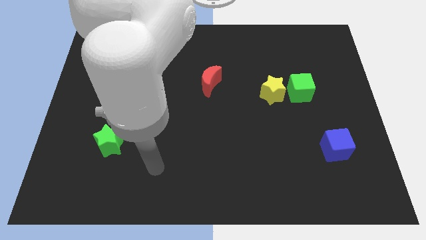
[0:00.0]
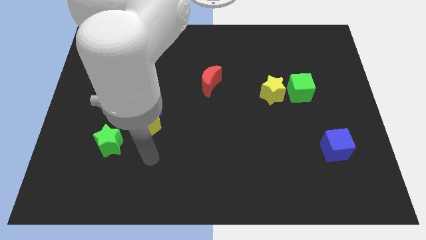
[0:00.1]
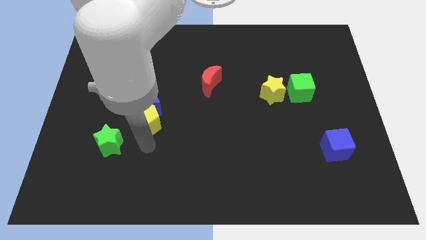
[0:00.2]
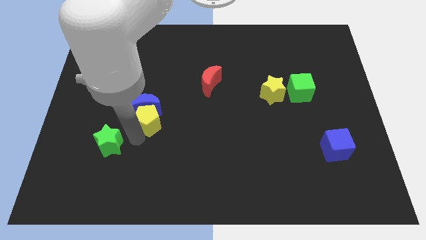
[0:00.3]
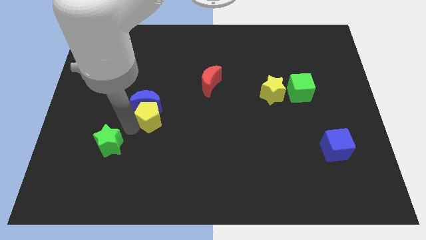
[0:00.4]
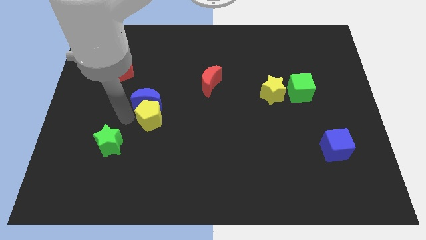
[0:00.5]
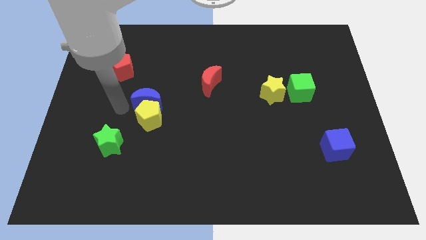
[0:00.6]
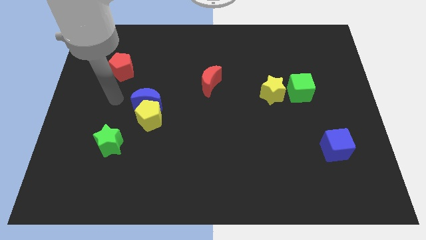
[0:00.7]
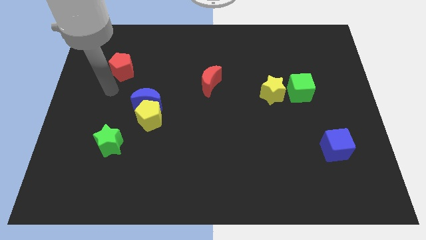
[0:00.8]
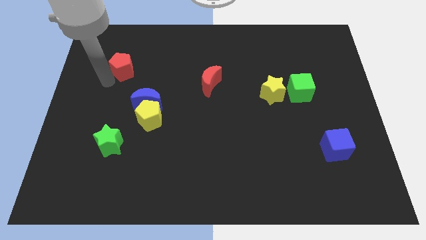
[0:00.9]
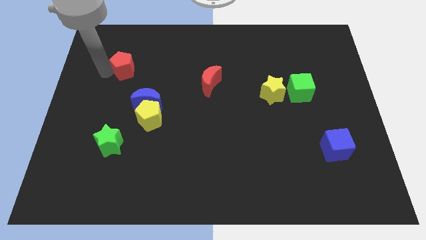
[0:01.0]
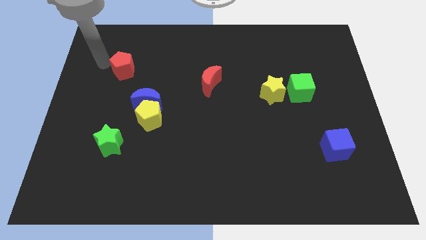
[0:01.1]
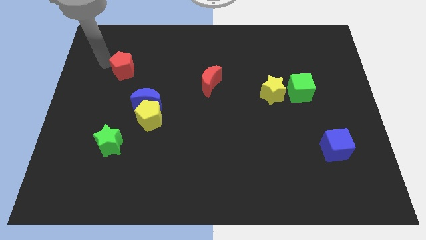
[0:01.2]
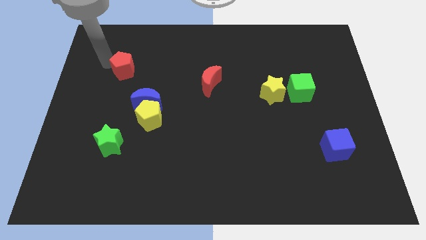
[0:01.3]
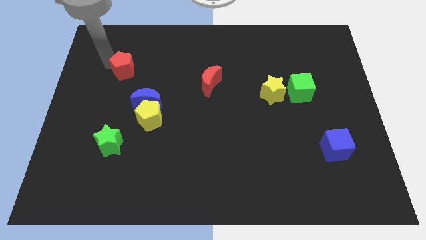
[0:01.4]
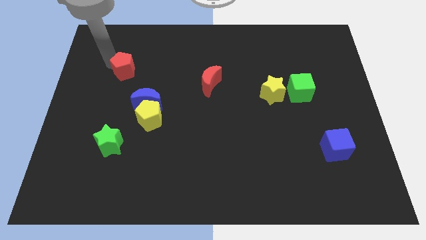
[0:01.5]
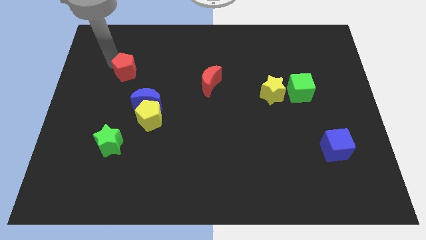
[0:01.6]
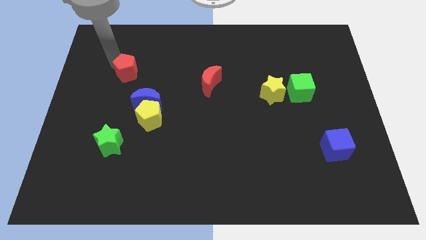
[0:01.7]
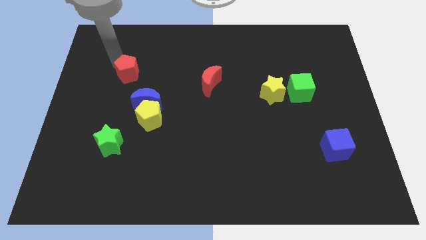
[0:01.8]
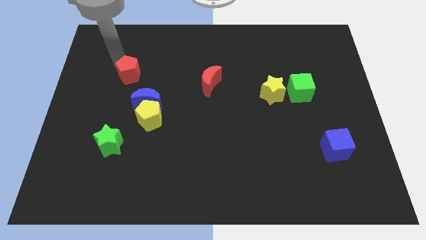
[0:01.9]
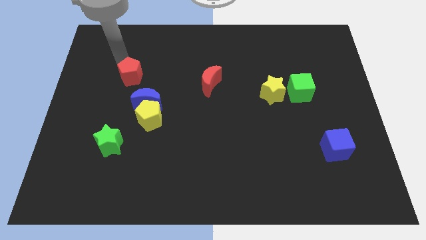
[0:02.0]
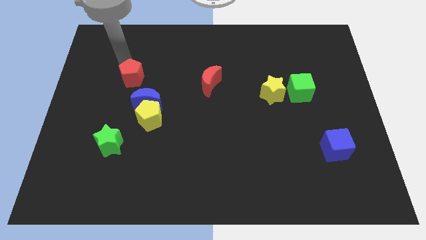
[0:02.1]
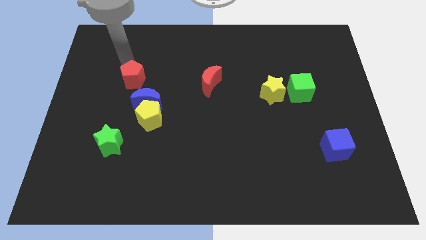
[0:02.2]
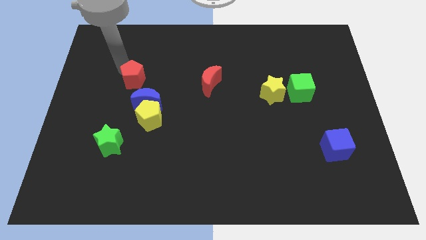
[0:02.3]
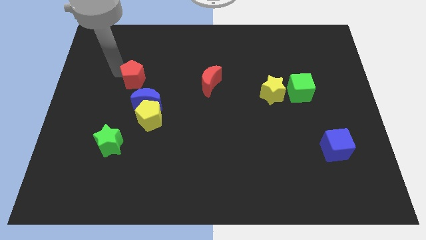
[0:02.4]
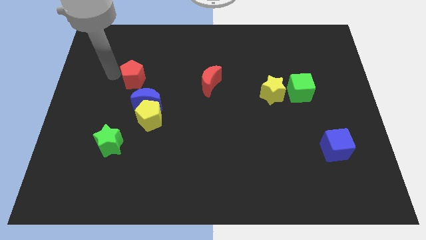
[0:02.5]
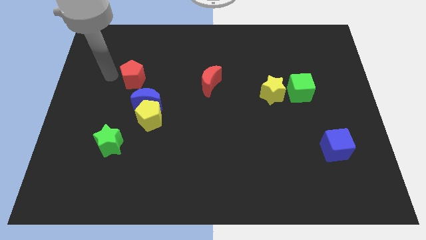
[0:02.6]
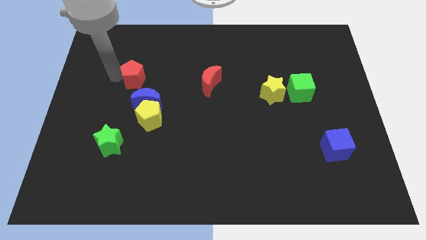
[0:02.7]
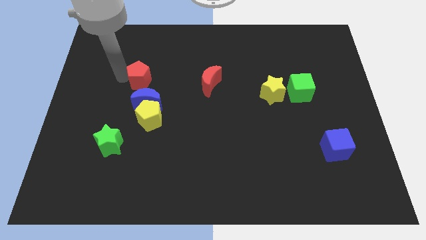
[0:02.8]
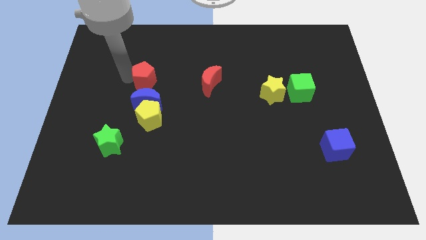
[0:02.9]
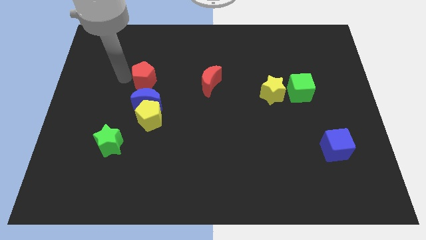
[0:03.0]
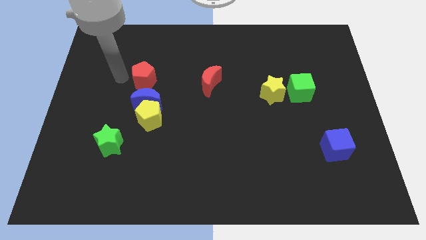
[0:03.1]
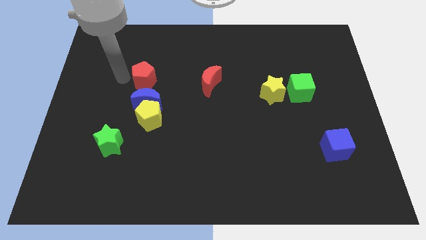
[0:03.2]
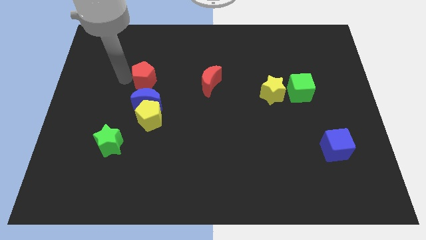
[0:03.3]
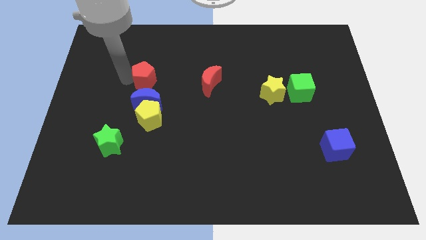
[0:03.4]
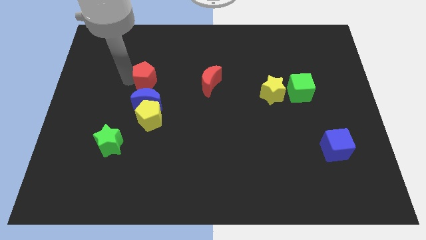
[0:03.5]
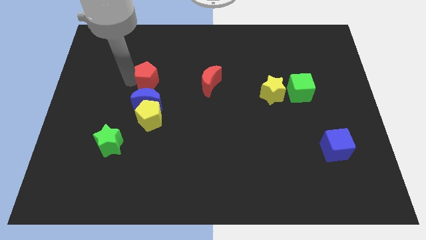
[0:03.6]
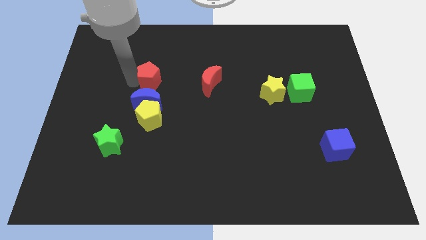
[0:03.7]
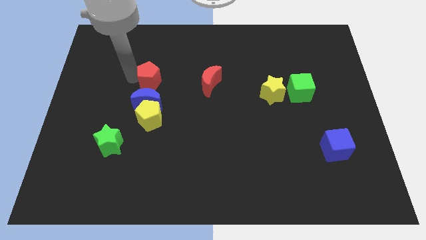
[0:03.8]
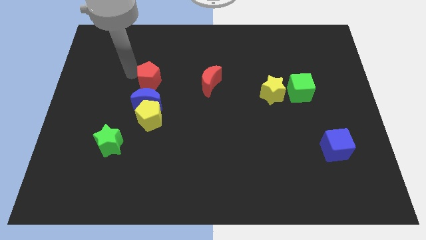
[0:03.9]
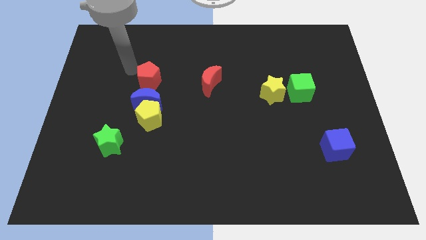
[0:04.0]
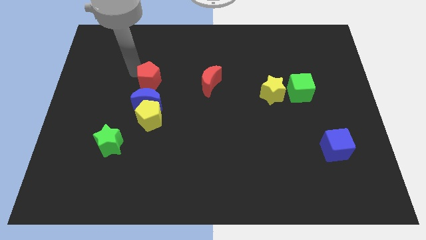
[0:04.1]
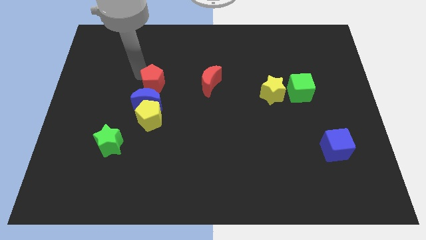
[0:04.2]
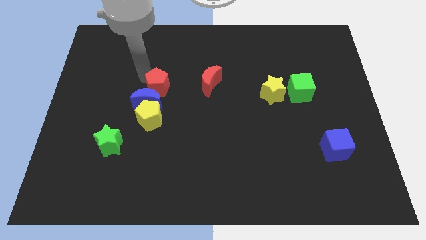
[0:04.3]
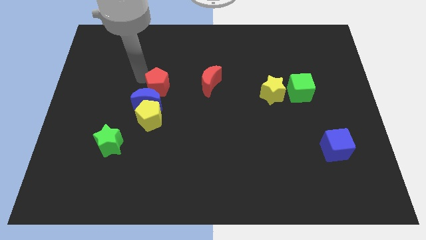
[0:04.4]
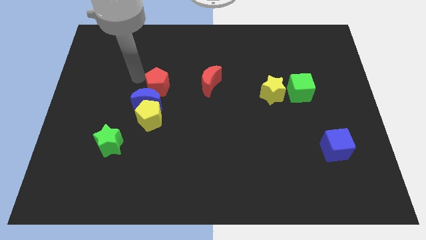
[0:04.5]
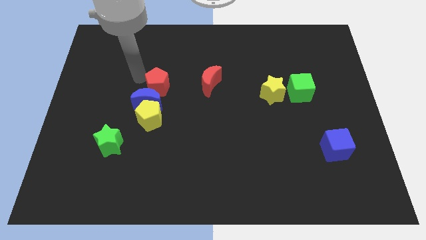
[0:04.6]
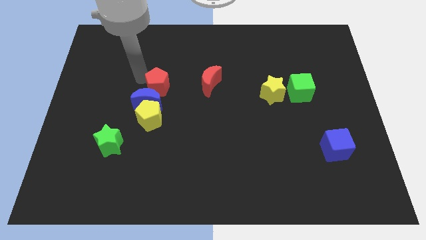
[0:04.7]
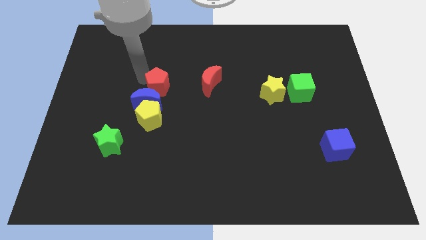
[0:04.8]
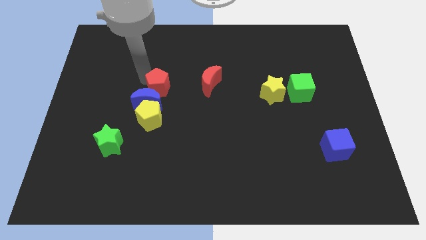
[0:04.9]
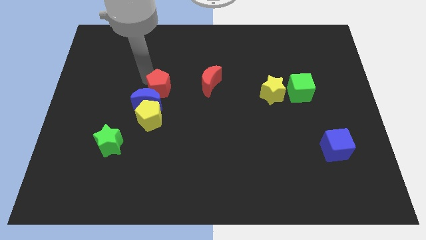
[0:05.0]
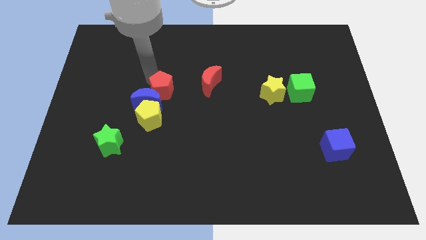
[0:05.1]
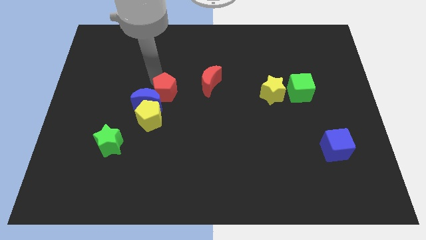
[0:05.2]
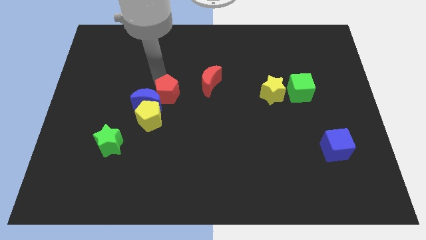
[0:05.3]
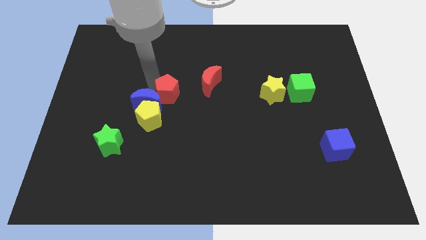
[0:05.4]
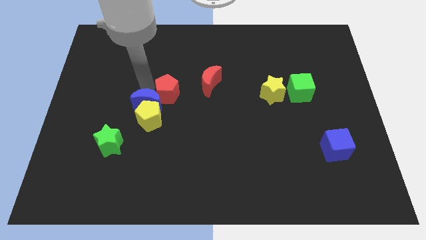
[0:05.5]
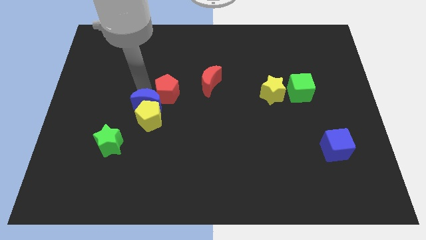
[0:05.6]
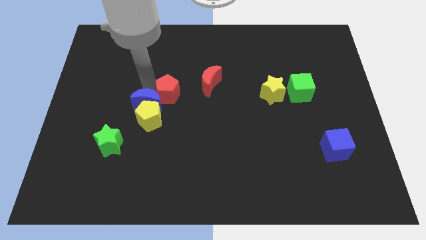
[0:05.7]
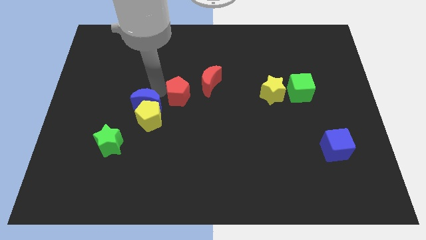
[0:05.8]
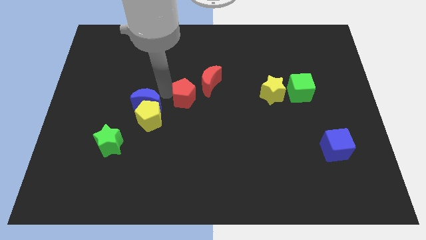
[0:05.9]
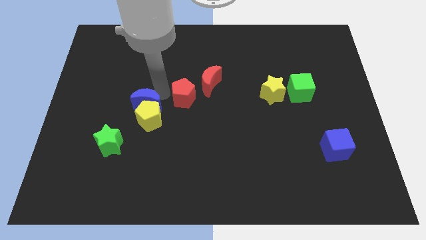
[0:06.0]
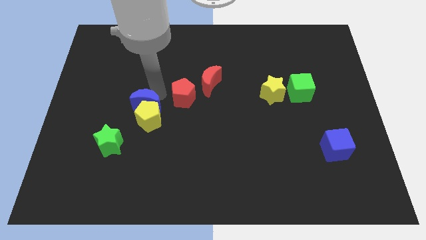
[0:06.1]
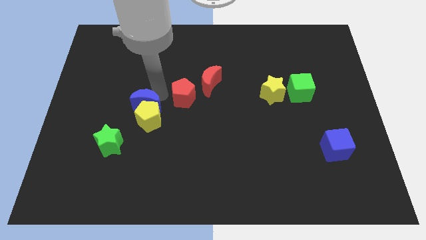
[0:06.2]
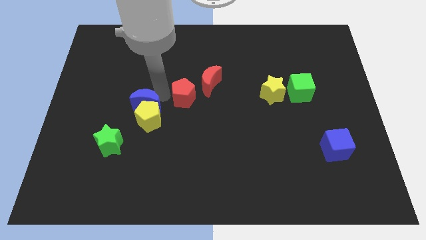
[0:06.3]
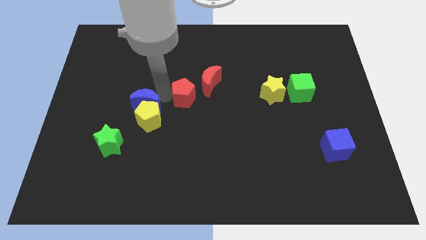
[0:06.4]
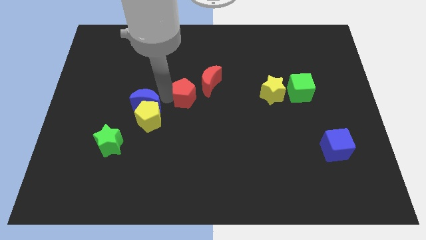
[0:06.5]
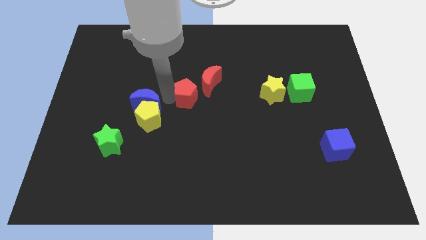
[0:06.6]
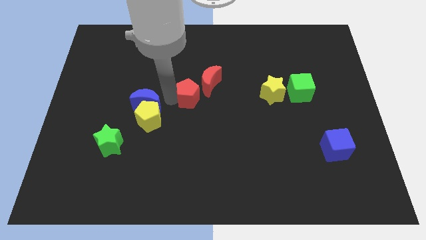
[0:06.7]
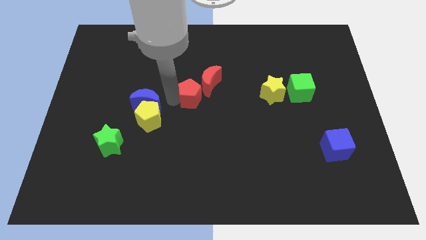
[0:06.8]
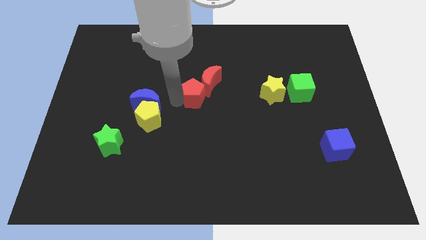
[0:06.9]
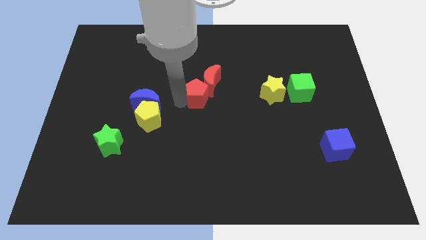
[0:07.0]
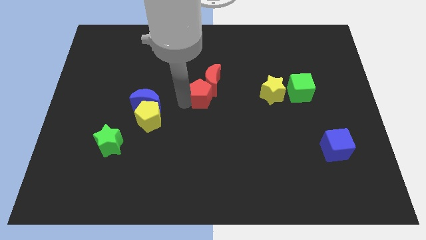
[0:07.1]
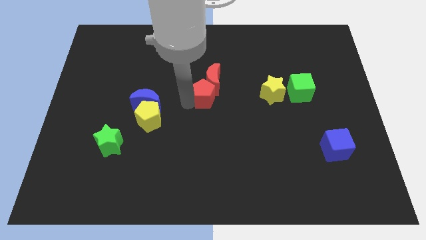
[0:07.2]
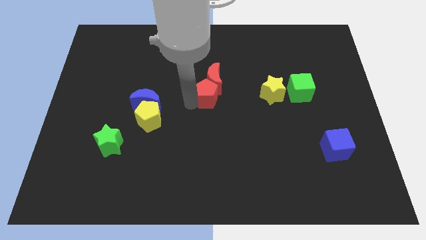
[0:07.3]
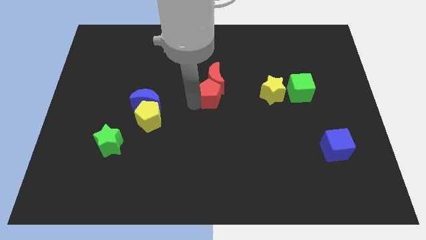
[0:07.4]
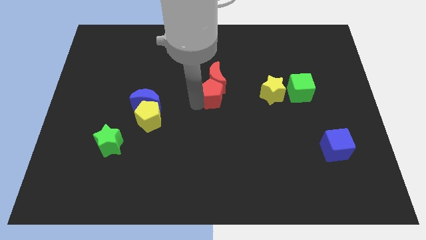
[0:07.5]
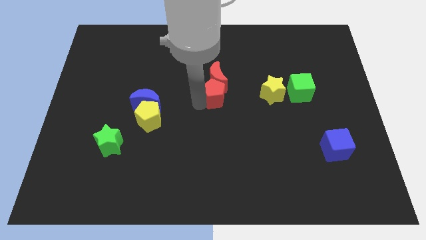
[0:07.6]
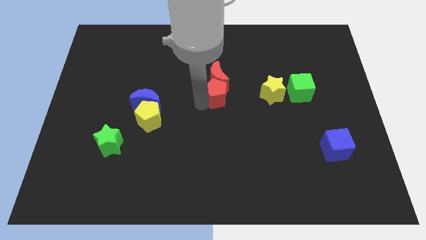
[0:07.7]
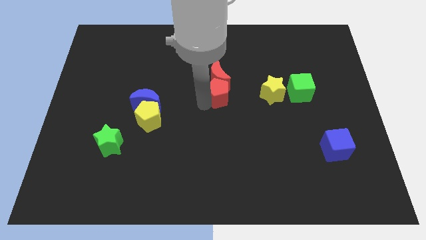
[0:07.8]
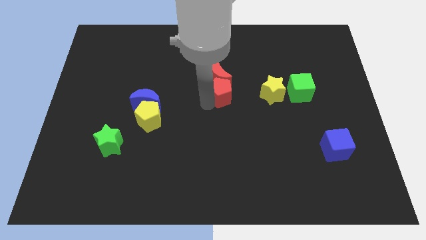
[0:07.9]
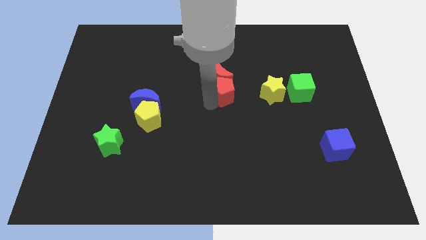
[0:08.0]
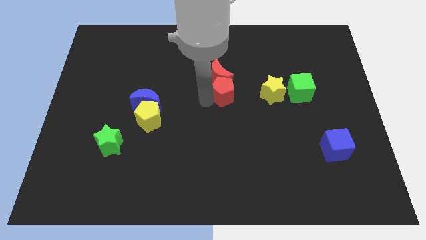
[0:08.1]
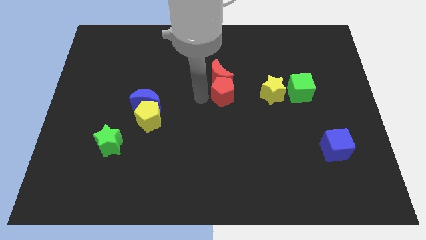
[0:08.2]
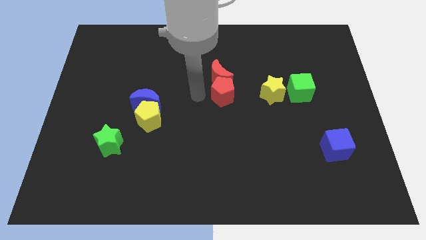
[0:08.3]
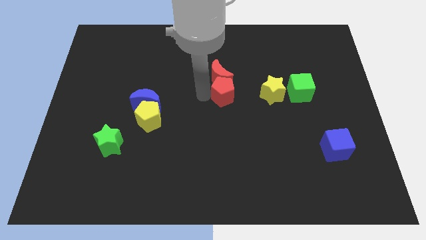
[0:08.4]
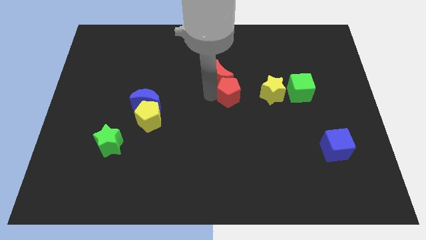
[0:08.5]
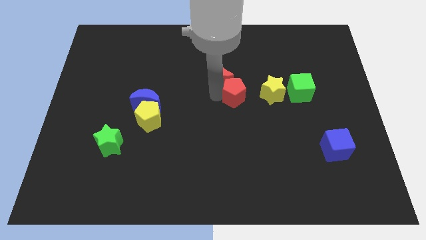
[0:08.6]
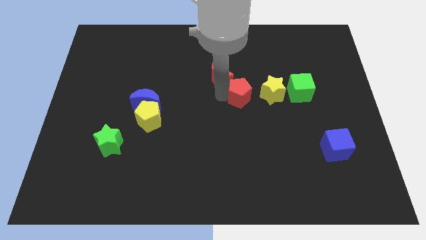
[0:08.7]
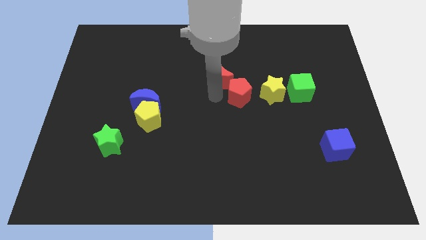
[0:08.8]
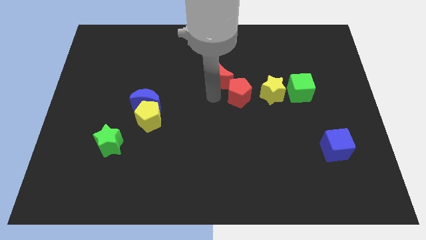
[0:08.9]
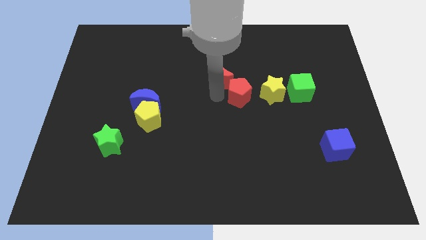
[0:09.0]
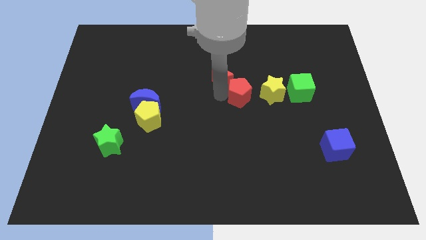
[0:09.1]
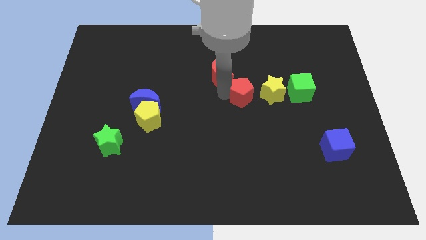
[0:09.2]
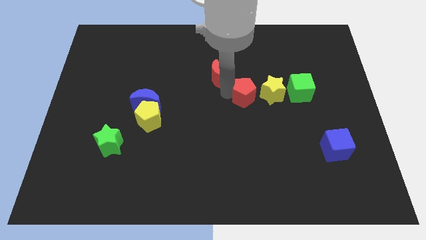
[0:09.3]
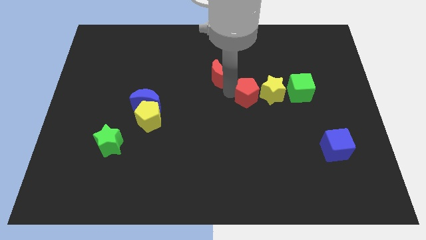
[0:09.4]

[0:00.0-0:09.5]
move the red pentagon towards the yellow star
